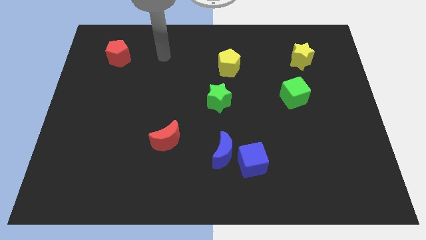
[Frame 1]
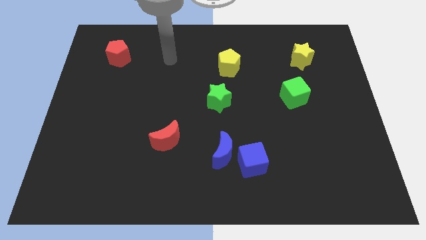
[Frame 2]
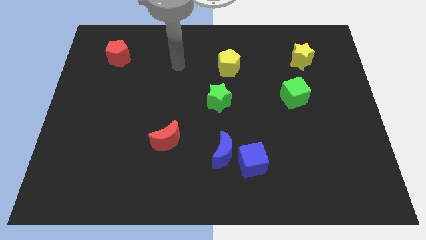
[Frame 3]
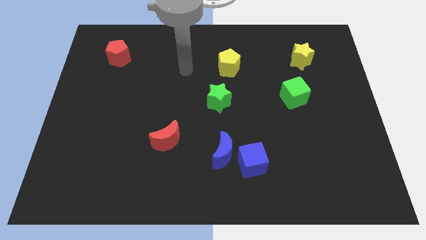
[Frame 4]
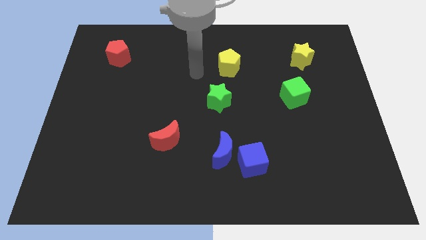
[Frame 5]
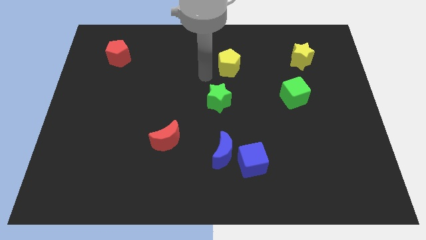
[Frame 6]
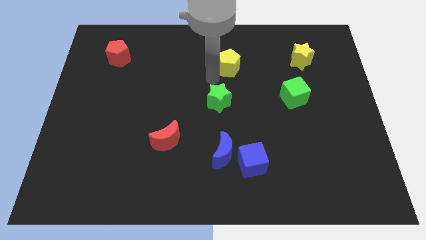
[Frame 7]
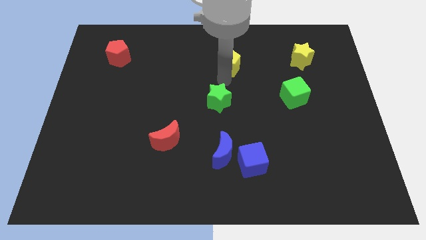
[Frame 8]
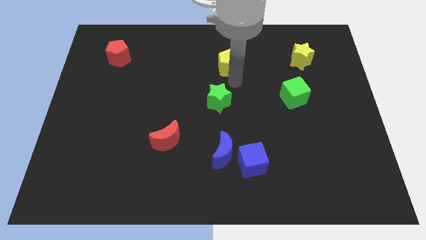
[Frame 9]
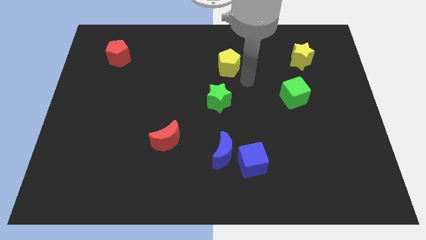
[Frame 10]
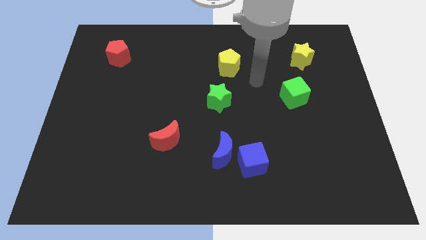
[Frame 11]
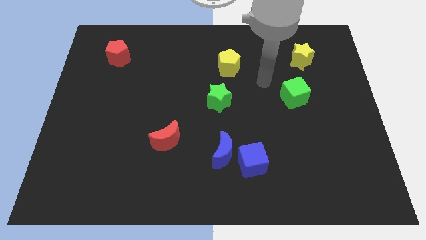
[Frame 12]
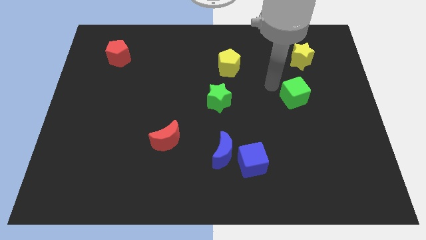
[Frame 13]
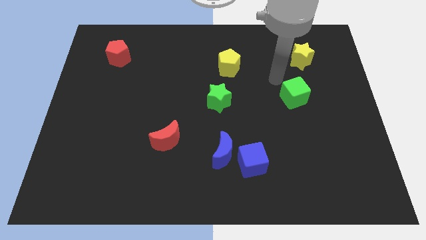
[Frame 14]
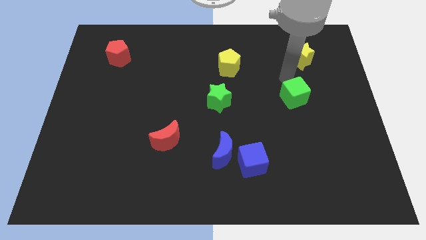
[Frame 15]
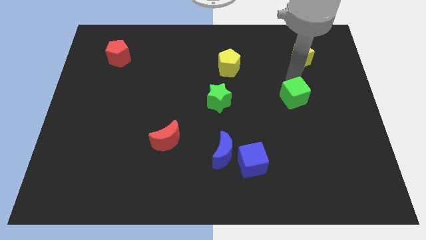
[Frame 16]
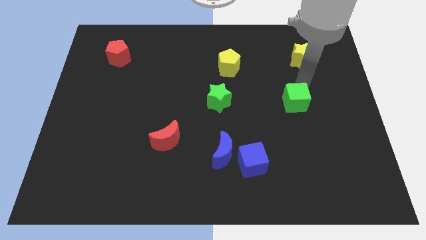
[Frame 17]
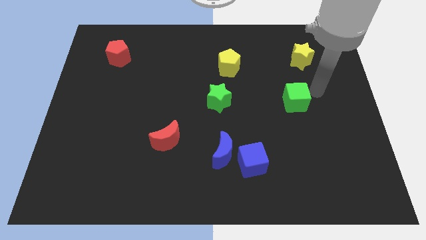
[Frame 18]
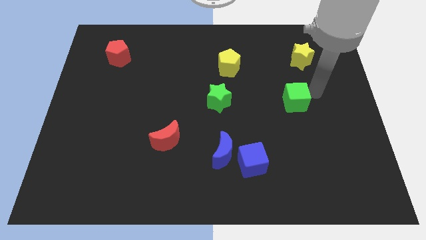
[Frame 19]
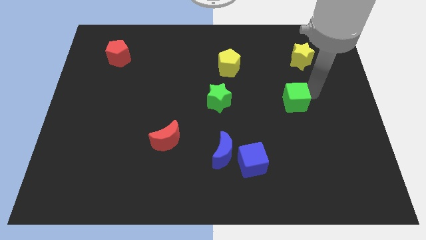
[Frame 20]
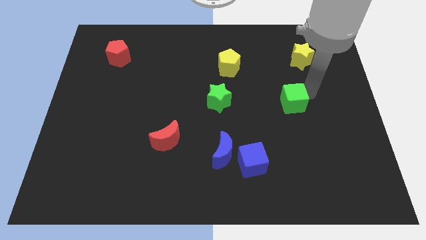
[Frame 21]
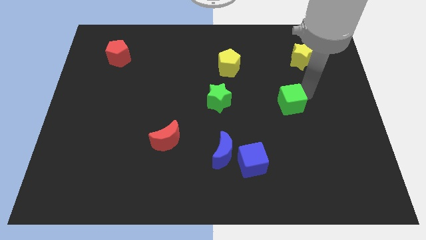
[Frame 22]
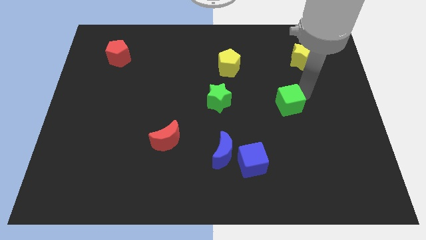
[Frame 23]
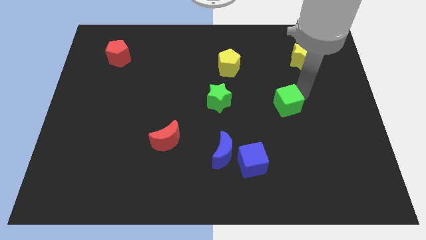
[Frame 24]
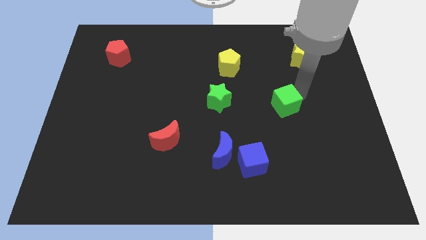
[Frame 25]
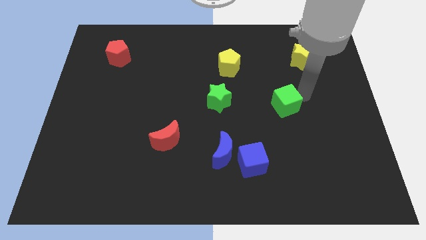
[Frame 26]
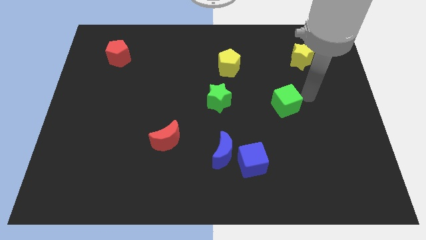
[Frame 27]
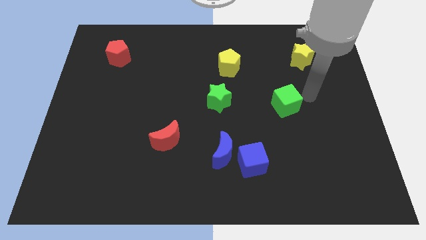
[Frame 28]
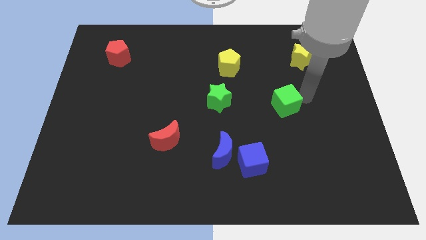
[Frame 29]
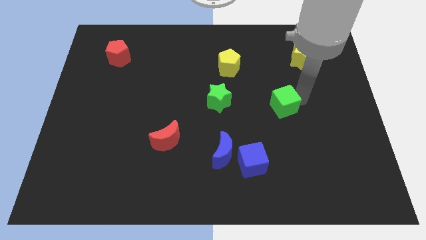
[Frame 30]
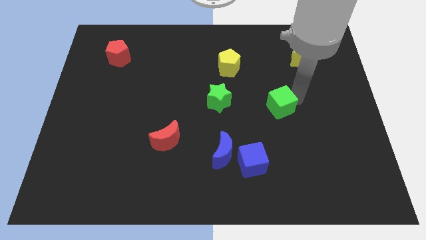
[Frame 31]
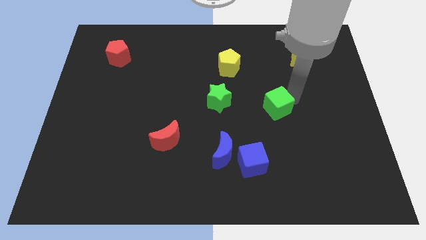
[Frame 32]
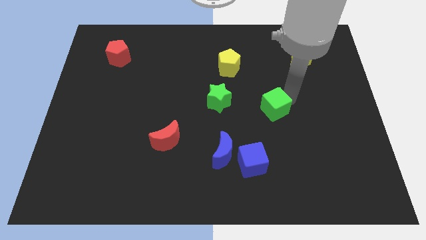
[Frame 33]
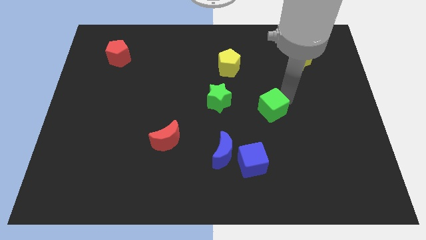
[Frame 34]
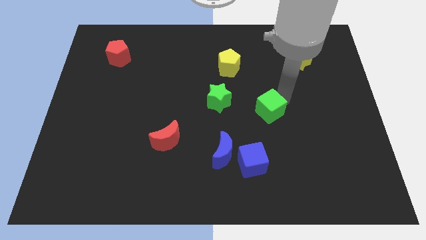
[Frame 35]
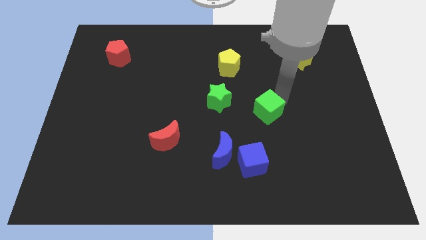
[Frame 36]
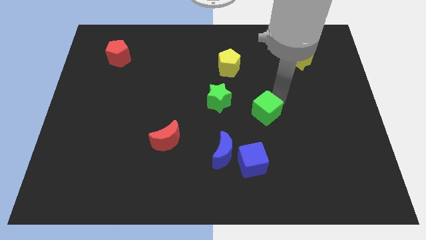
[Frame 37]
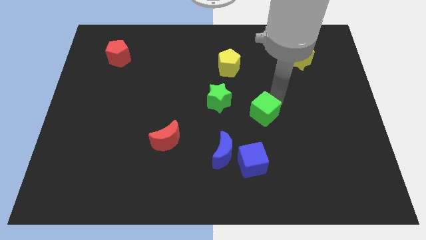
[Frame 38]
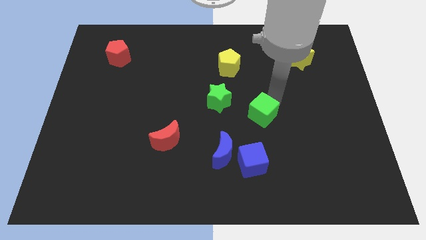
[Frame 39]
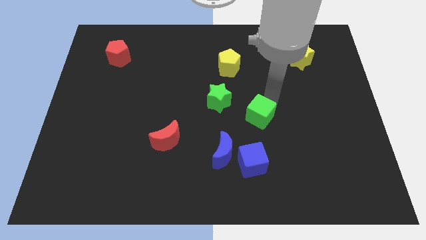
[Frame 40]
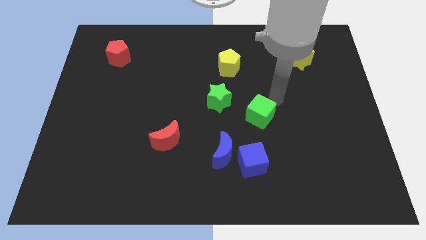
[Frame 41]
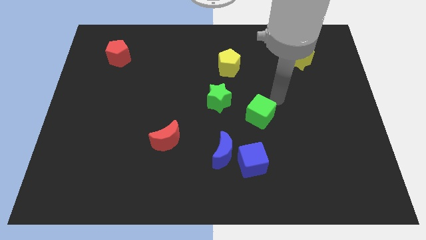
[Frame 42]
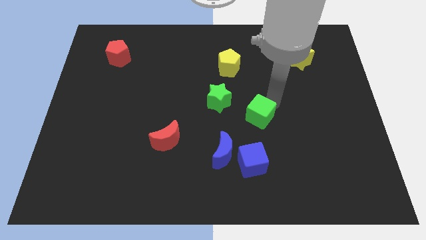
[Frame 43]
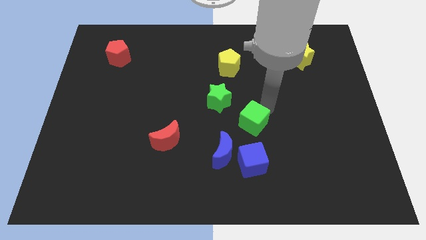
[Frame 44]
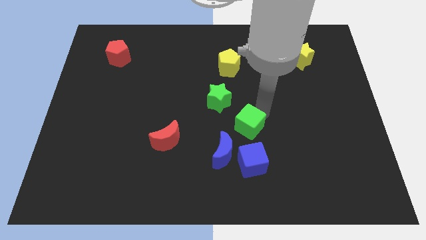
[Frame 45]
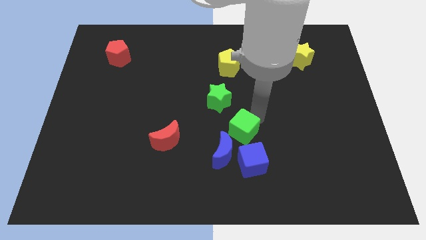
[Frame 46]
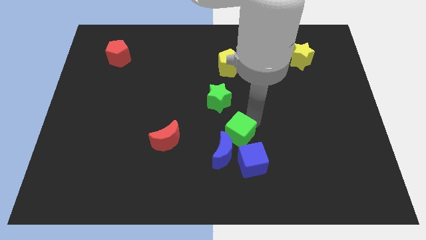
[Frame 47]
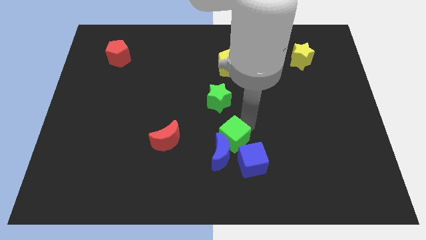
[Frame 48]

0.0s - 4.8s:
put the green cube towards the blue moon

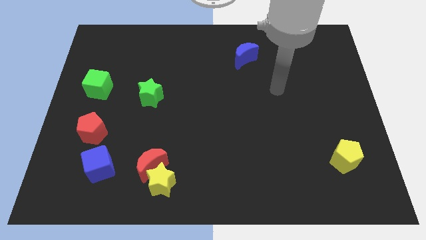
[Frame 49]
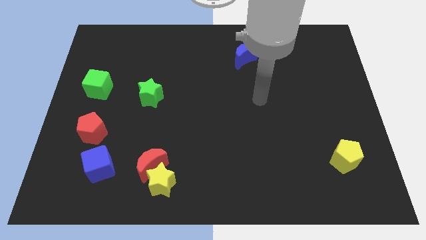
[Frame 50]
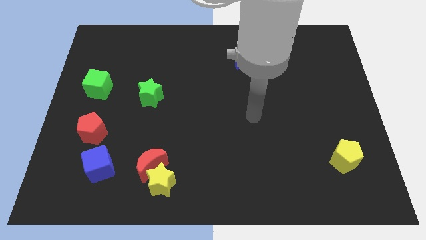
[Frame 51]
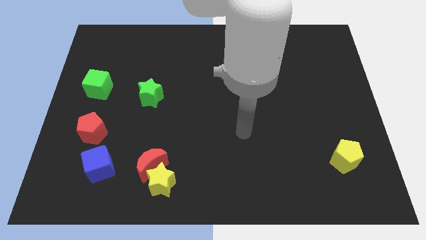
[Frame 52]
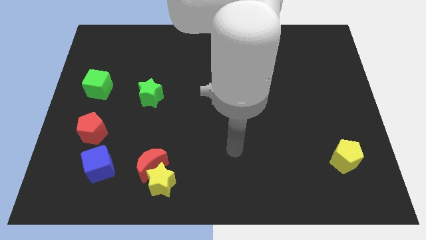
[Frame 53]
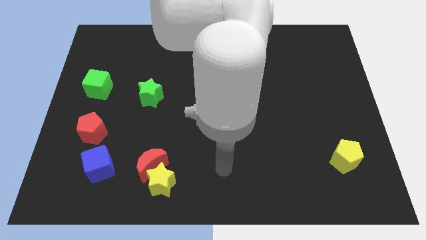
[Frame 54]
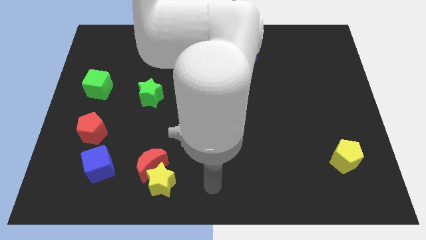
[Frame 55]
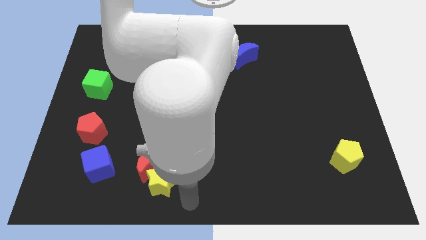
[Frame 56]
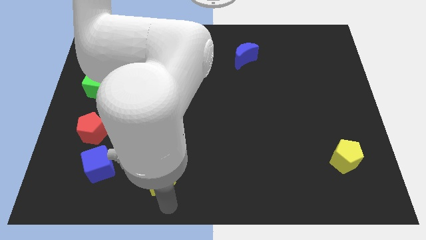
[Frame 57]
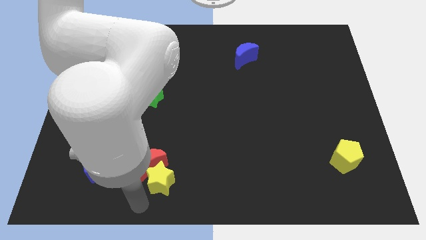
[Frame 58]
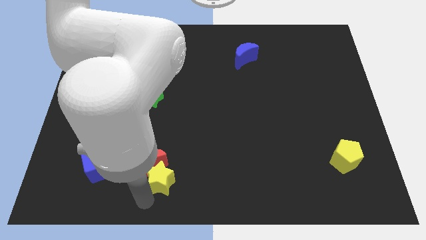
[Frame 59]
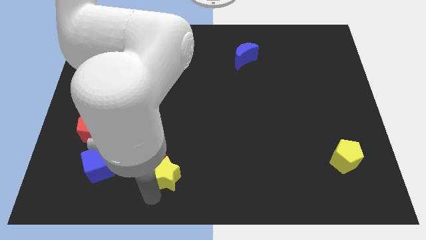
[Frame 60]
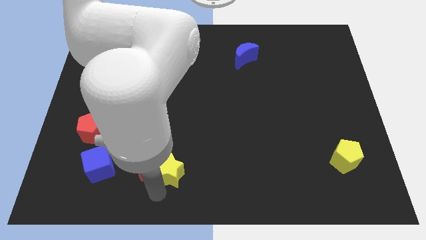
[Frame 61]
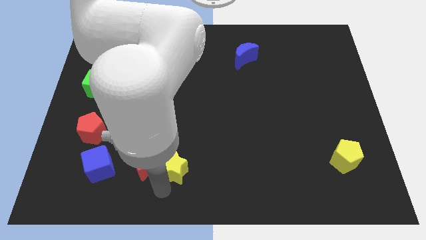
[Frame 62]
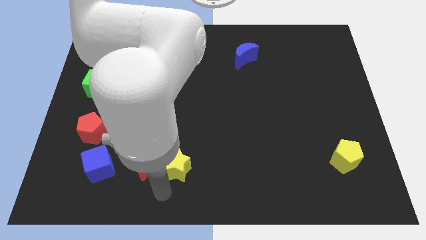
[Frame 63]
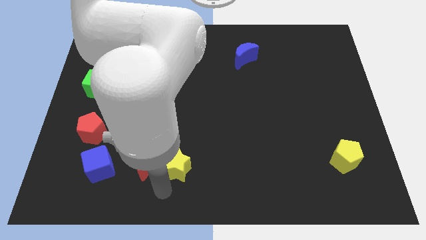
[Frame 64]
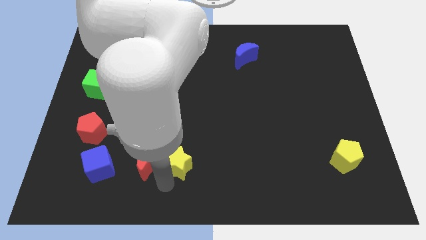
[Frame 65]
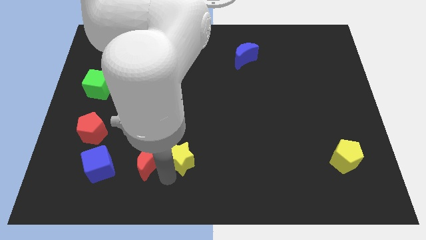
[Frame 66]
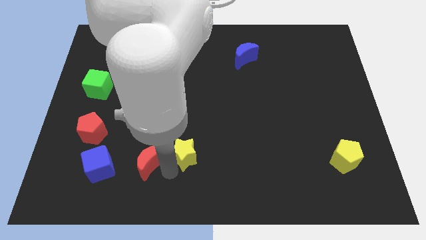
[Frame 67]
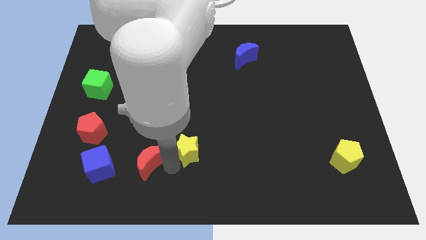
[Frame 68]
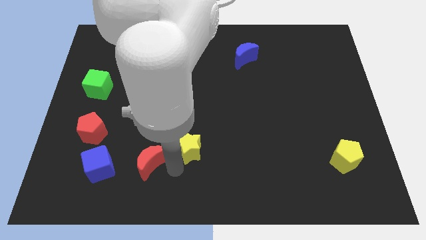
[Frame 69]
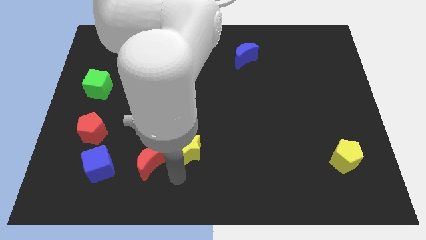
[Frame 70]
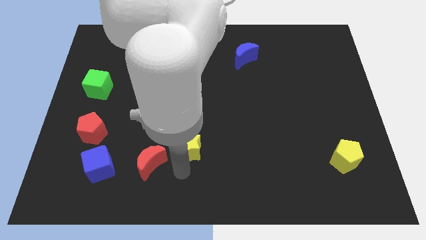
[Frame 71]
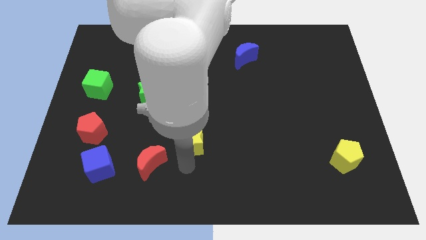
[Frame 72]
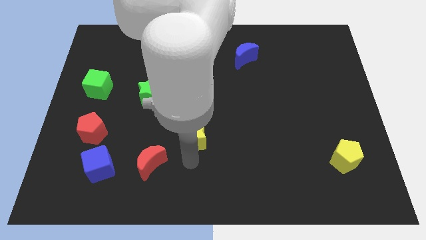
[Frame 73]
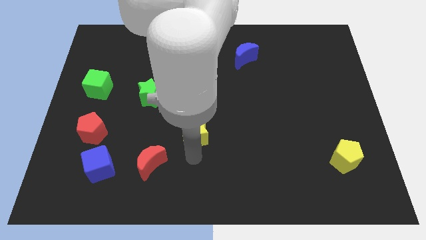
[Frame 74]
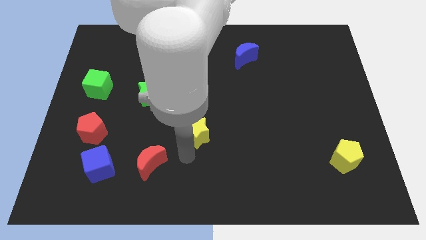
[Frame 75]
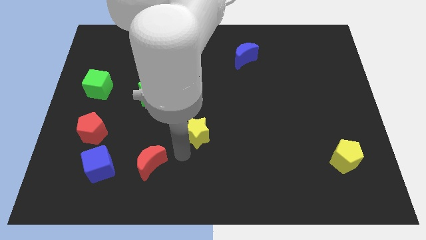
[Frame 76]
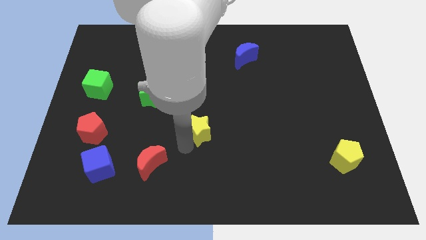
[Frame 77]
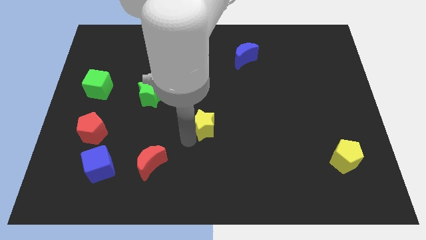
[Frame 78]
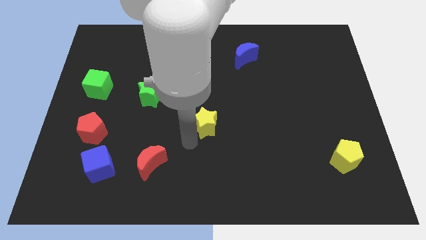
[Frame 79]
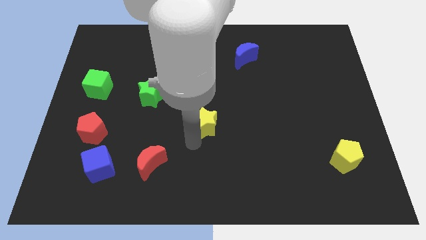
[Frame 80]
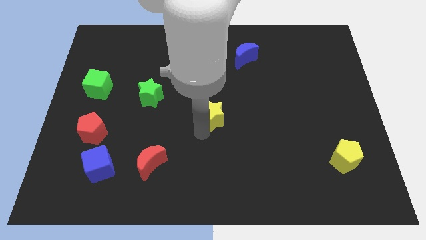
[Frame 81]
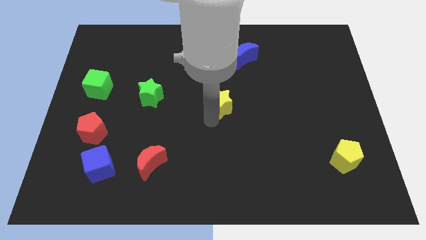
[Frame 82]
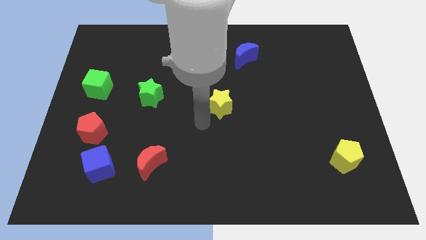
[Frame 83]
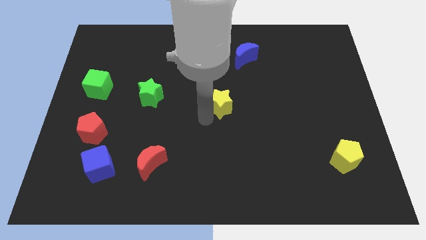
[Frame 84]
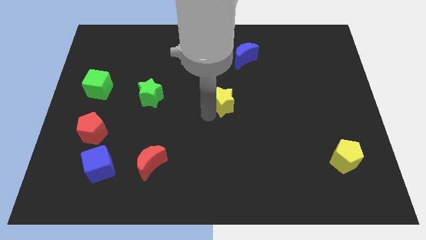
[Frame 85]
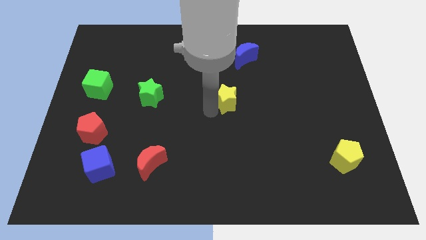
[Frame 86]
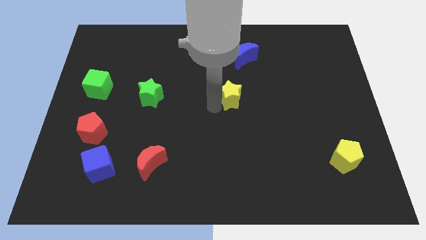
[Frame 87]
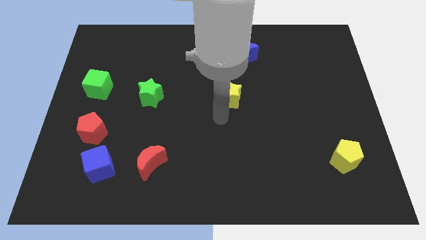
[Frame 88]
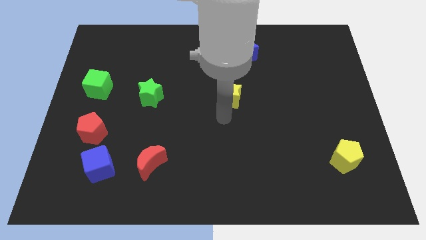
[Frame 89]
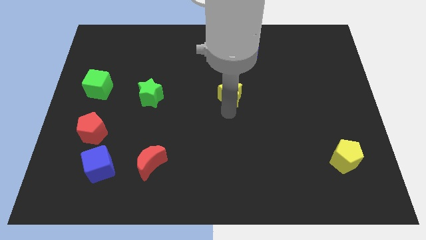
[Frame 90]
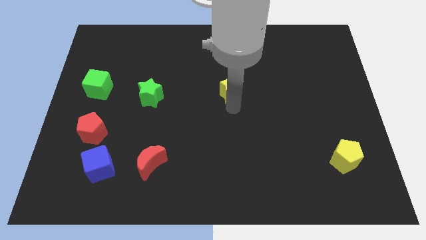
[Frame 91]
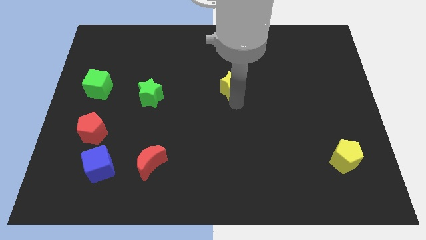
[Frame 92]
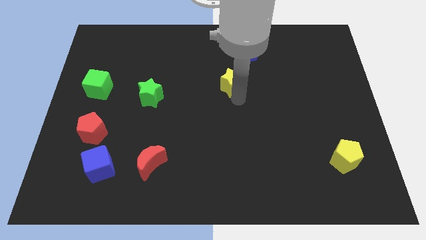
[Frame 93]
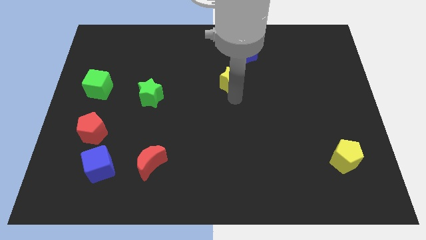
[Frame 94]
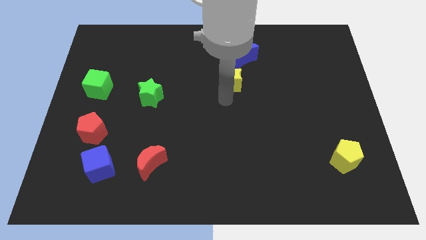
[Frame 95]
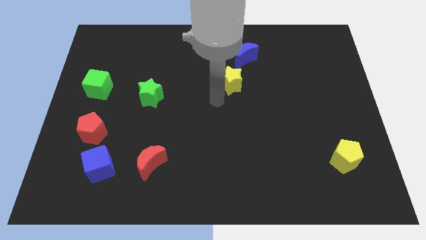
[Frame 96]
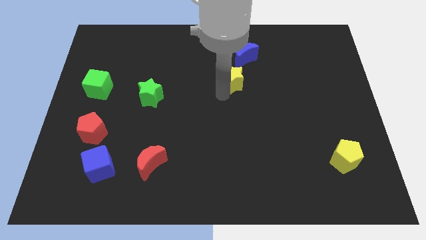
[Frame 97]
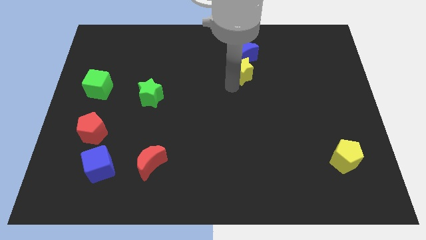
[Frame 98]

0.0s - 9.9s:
push the yellow star towards the blue moon
